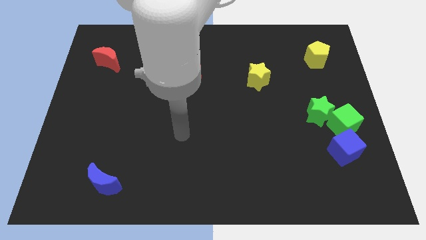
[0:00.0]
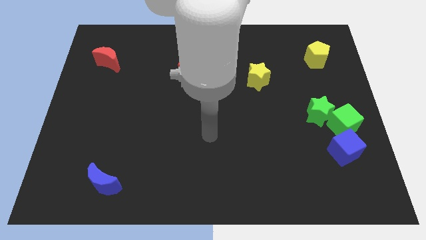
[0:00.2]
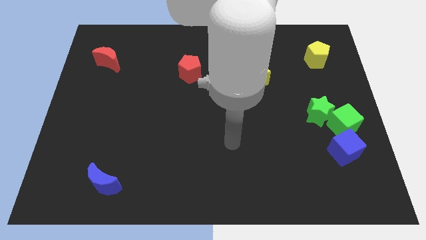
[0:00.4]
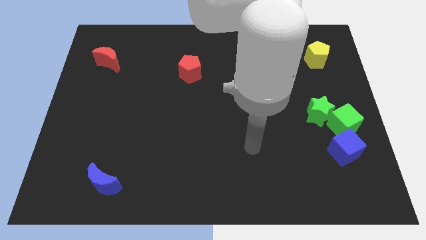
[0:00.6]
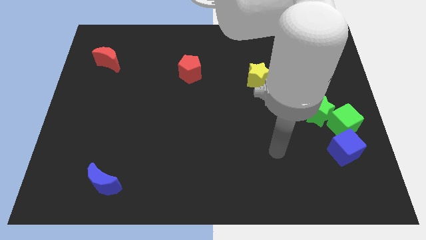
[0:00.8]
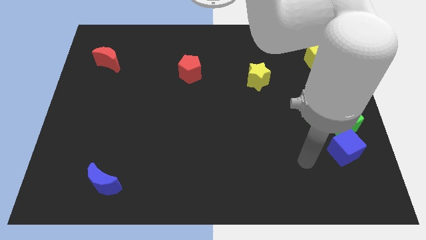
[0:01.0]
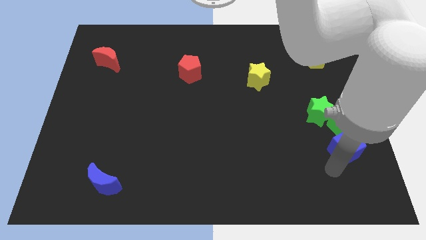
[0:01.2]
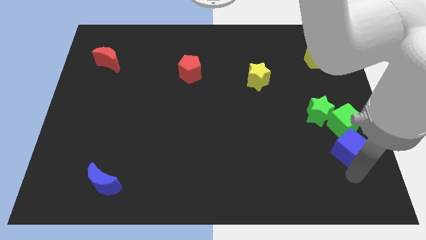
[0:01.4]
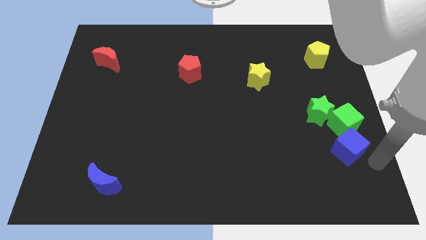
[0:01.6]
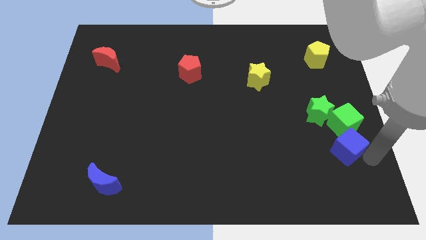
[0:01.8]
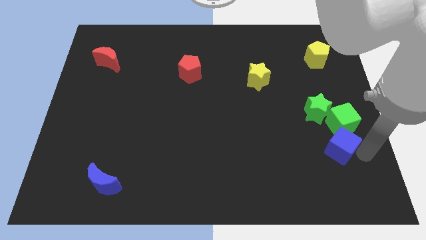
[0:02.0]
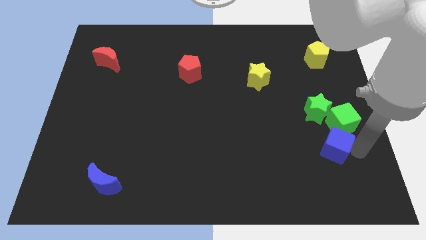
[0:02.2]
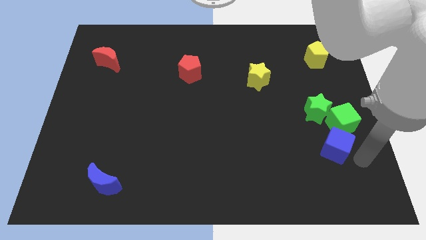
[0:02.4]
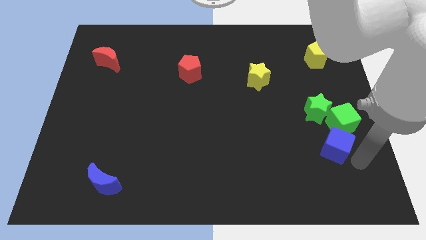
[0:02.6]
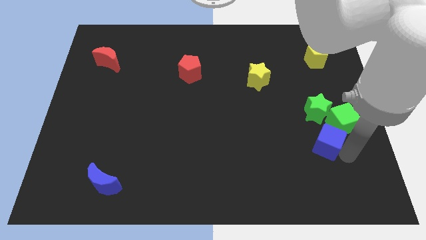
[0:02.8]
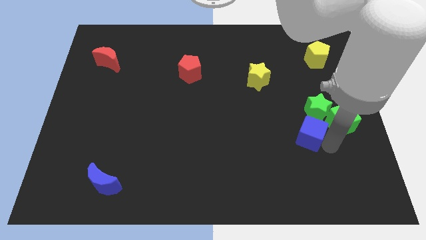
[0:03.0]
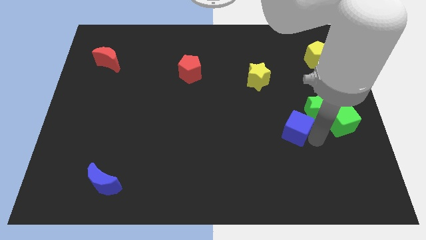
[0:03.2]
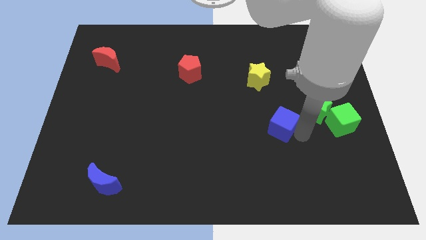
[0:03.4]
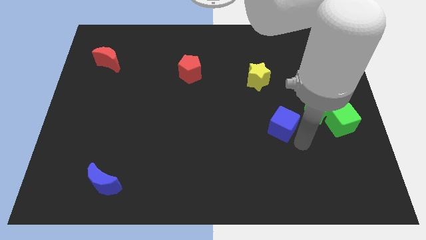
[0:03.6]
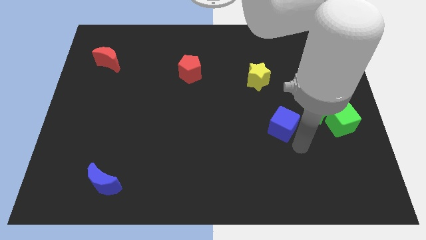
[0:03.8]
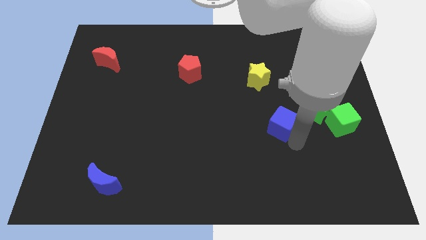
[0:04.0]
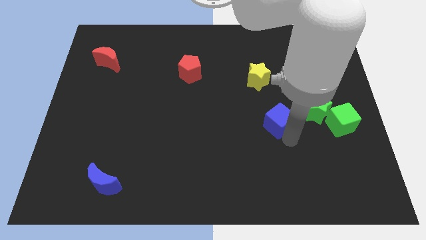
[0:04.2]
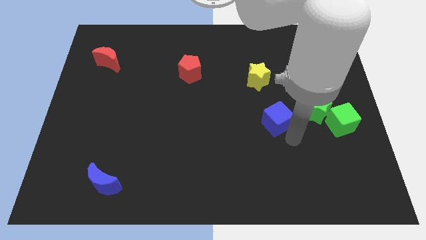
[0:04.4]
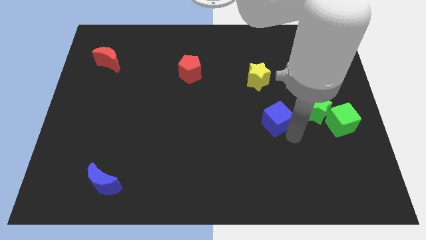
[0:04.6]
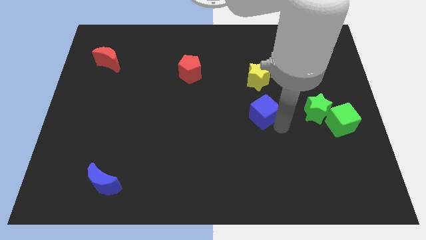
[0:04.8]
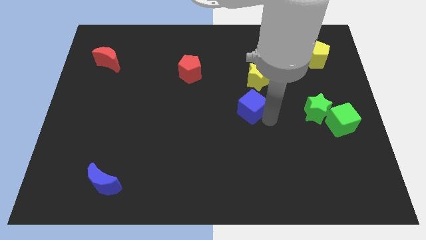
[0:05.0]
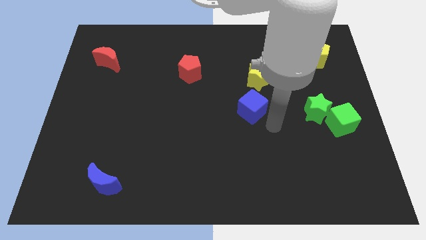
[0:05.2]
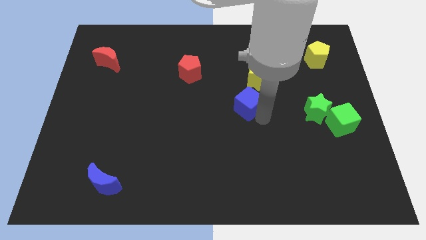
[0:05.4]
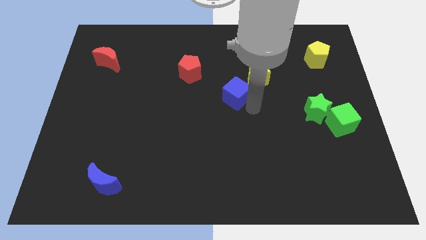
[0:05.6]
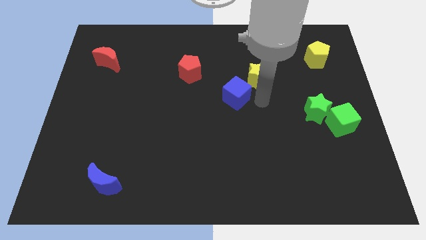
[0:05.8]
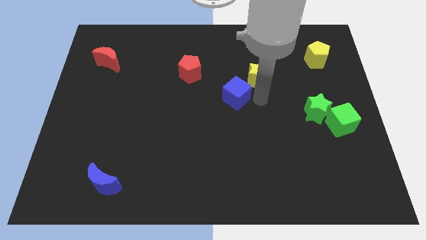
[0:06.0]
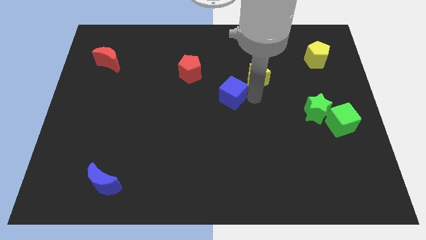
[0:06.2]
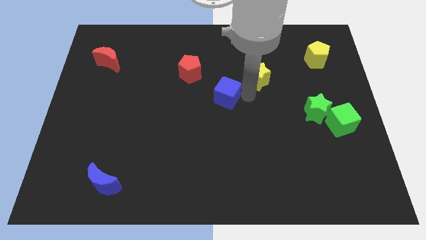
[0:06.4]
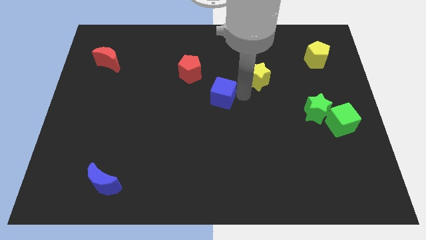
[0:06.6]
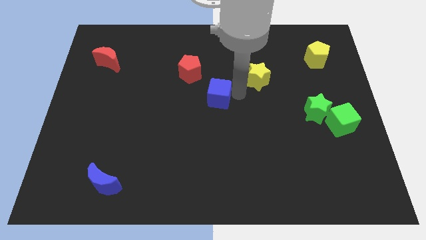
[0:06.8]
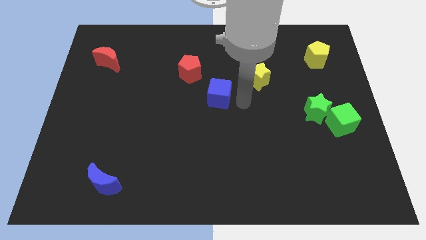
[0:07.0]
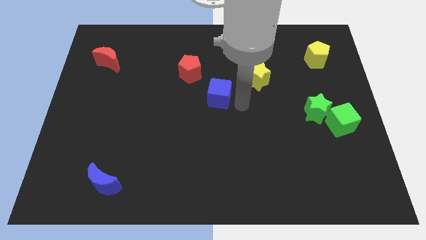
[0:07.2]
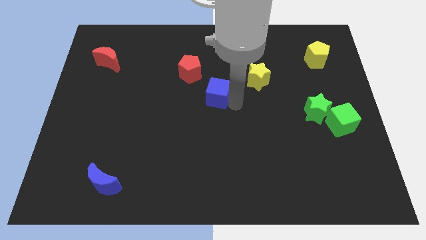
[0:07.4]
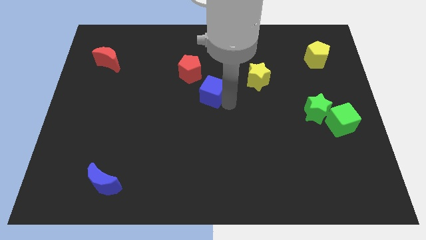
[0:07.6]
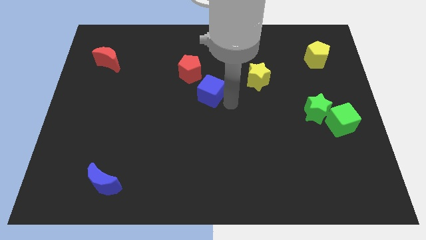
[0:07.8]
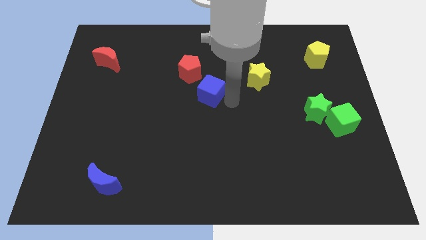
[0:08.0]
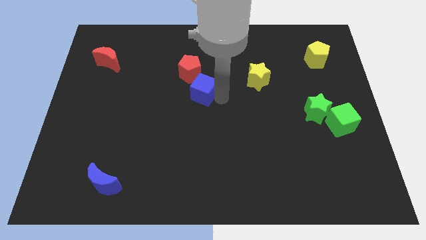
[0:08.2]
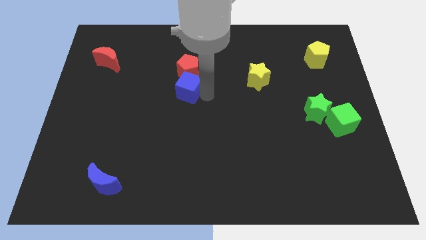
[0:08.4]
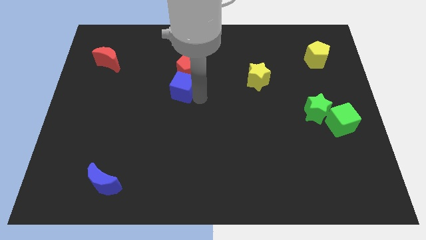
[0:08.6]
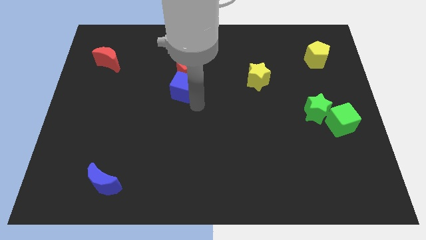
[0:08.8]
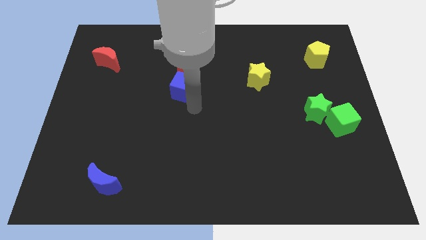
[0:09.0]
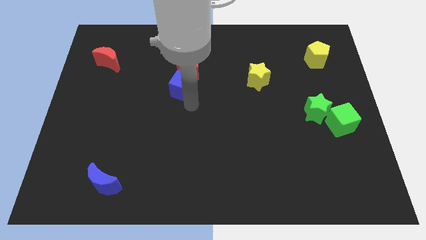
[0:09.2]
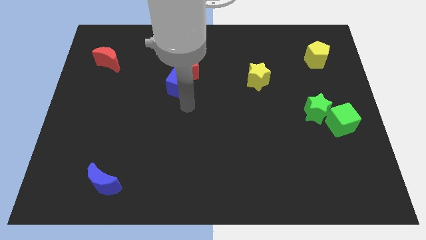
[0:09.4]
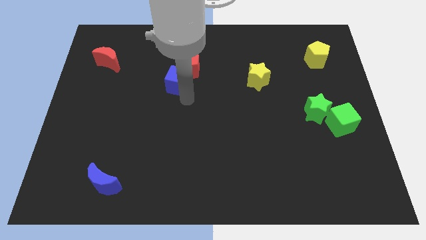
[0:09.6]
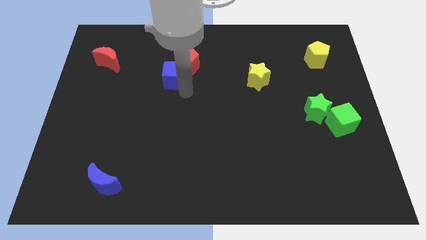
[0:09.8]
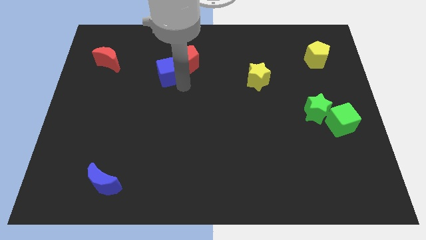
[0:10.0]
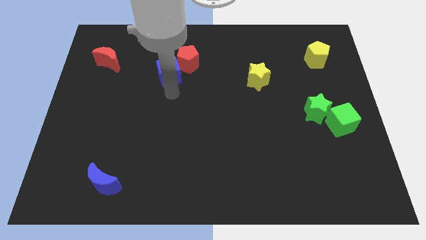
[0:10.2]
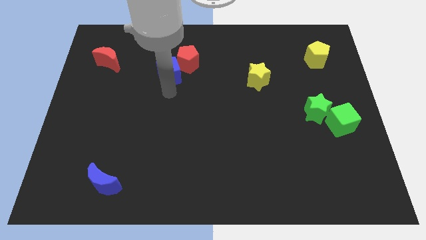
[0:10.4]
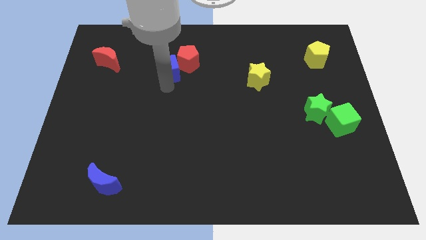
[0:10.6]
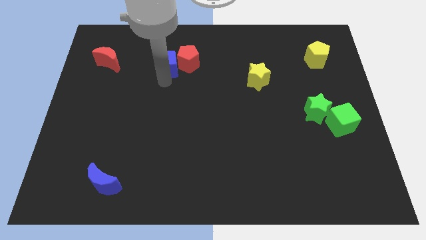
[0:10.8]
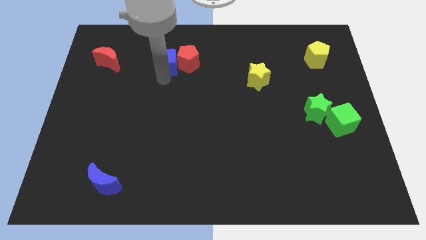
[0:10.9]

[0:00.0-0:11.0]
move the blue cube to the top left of the red pentagon
